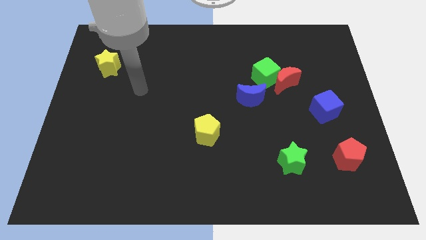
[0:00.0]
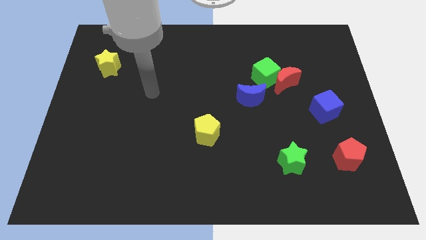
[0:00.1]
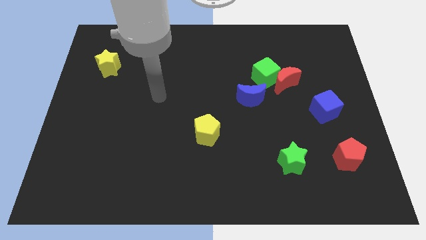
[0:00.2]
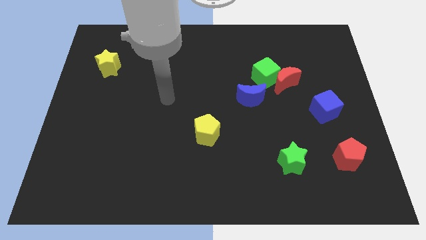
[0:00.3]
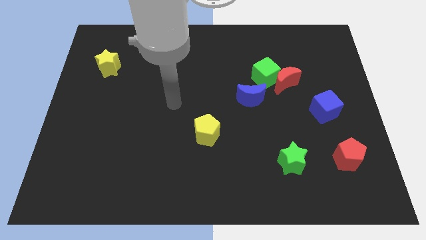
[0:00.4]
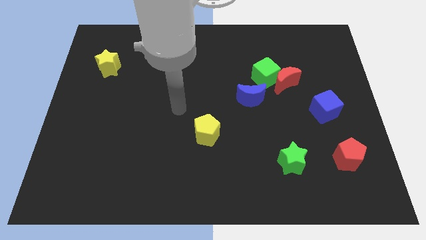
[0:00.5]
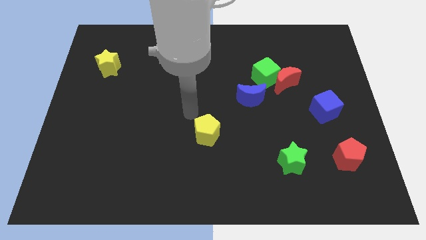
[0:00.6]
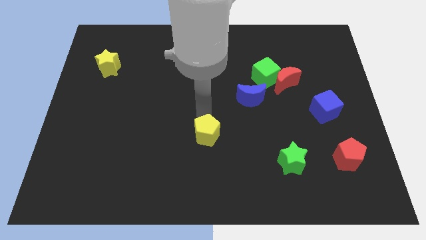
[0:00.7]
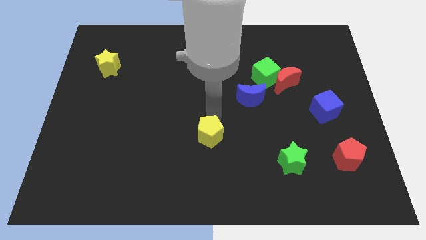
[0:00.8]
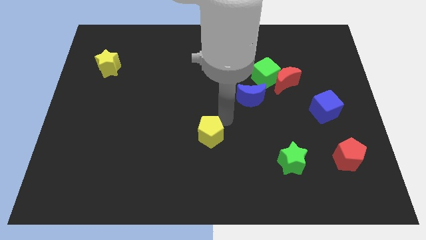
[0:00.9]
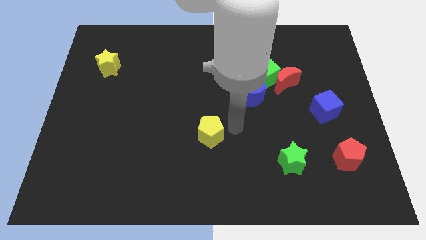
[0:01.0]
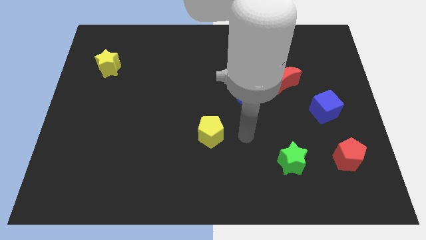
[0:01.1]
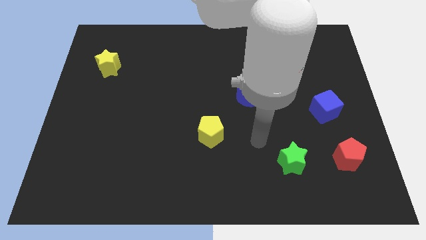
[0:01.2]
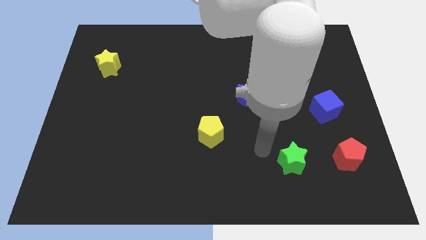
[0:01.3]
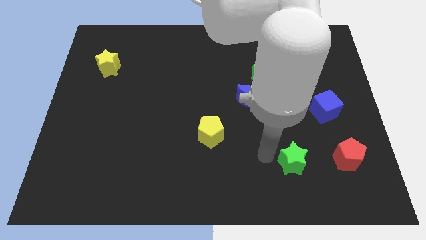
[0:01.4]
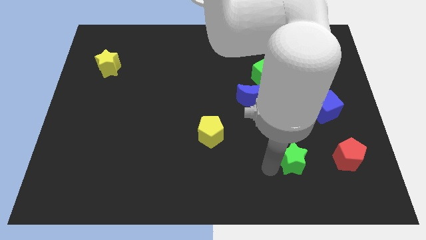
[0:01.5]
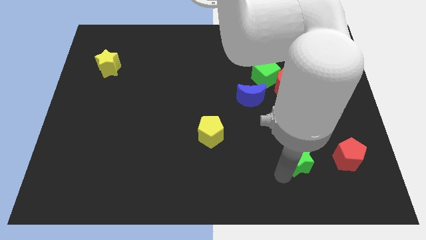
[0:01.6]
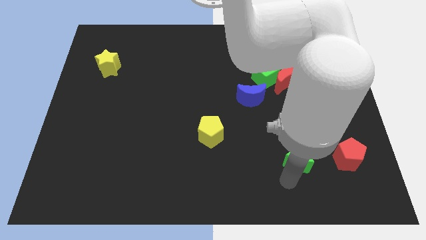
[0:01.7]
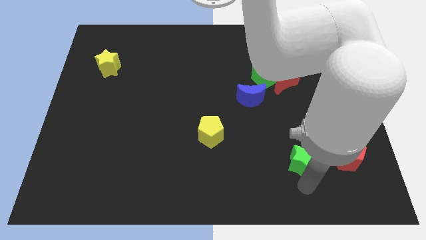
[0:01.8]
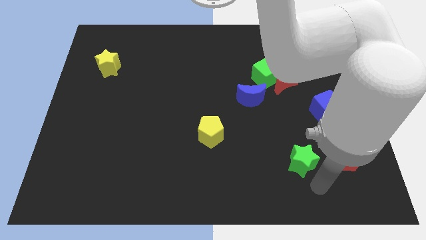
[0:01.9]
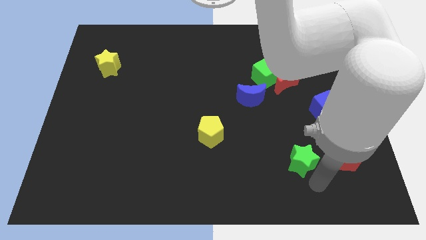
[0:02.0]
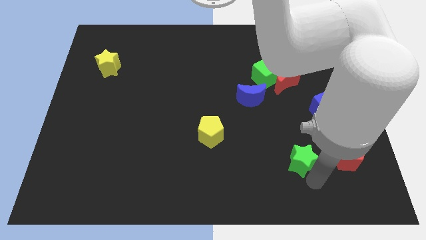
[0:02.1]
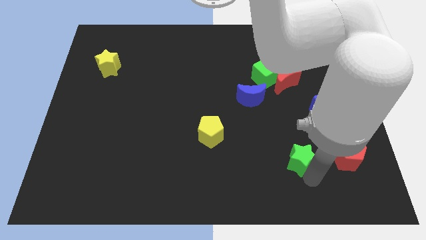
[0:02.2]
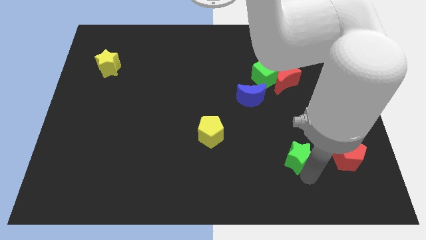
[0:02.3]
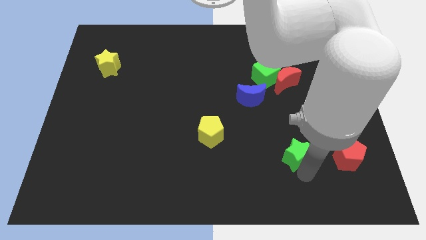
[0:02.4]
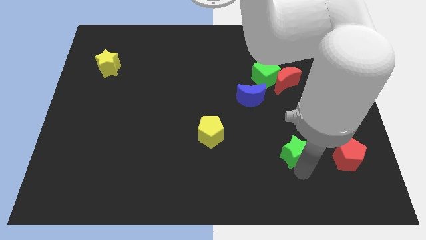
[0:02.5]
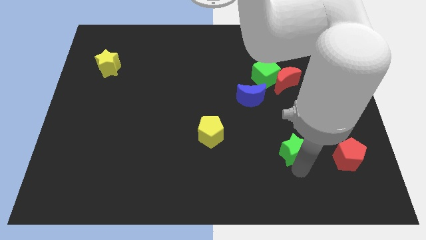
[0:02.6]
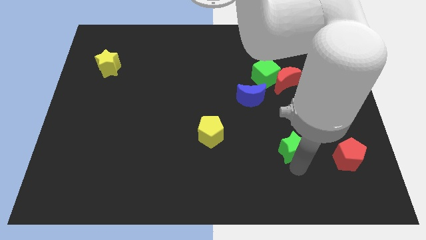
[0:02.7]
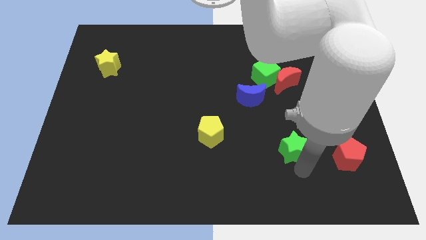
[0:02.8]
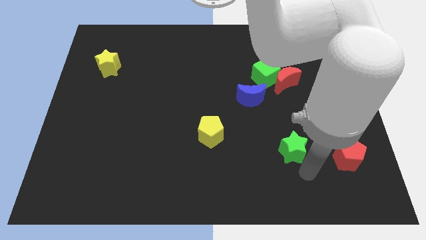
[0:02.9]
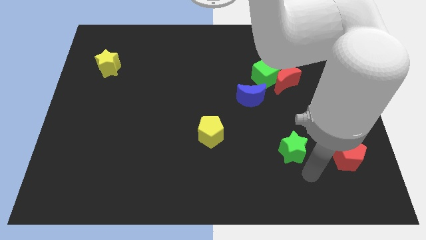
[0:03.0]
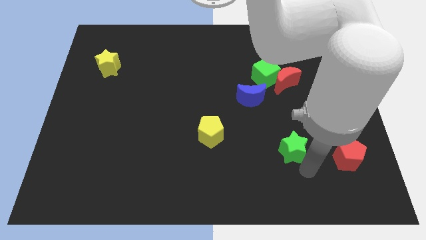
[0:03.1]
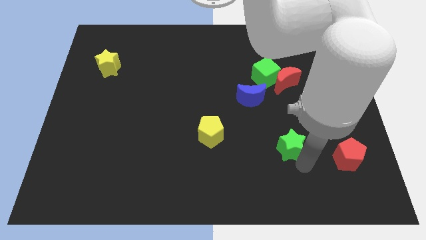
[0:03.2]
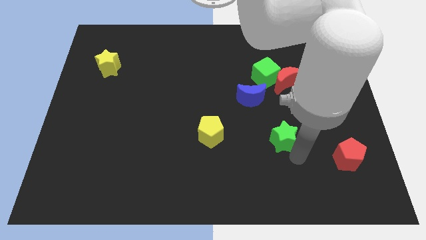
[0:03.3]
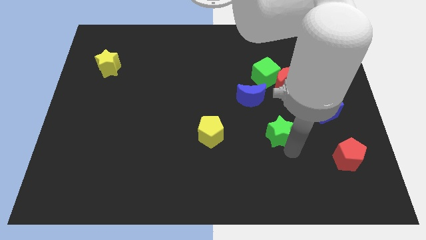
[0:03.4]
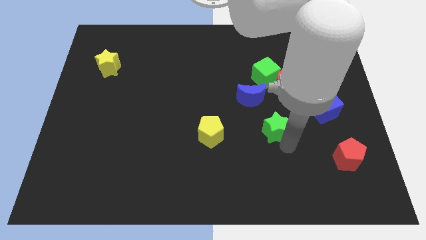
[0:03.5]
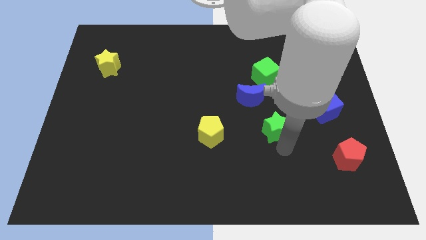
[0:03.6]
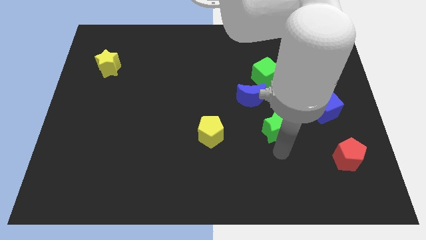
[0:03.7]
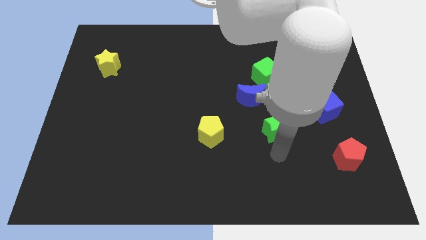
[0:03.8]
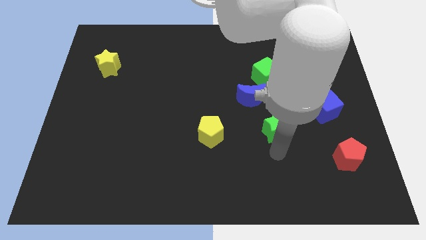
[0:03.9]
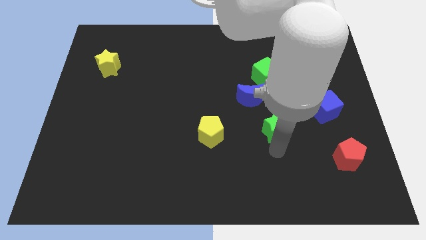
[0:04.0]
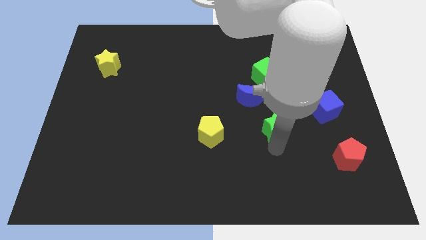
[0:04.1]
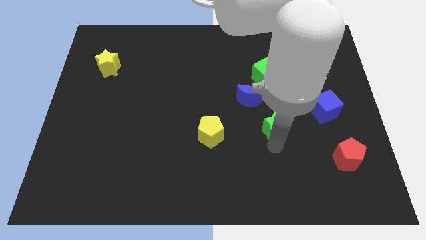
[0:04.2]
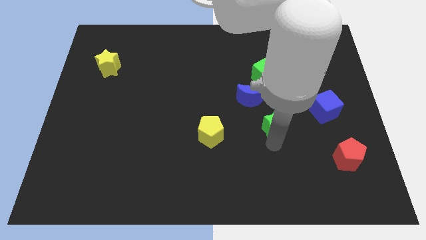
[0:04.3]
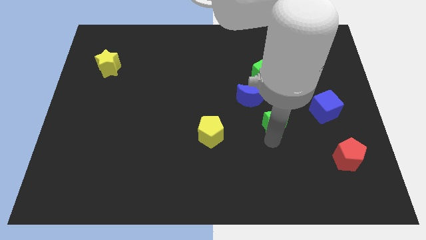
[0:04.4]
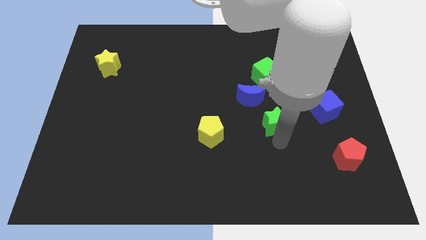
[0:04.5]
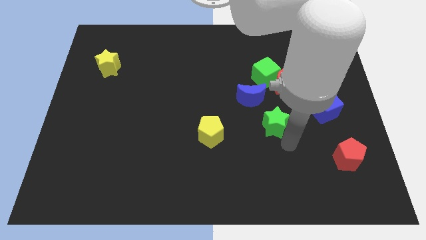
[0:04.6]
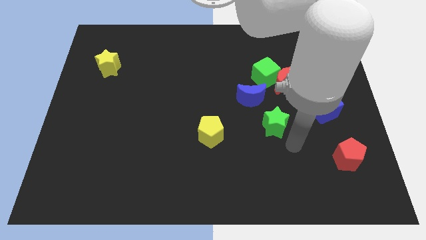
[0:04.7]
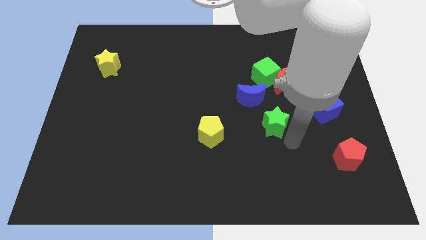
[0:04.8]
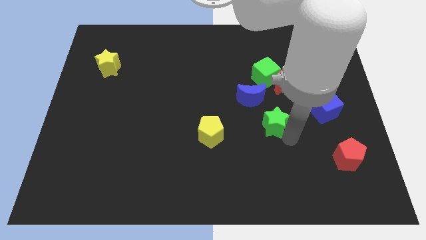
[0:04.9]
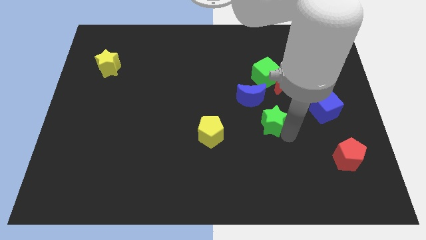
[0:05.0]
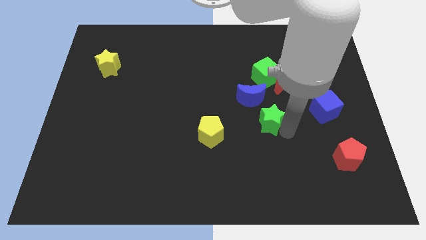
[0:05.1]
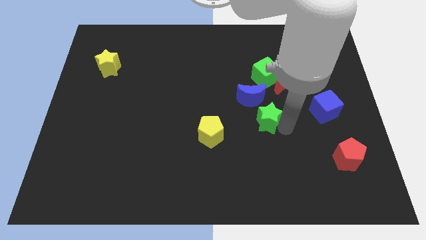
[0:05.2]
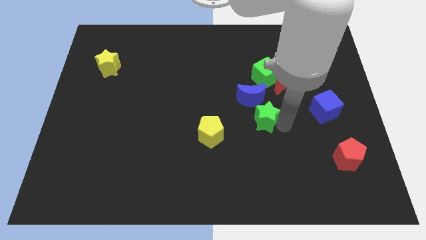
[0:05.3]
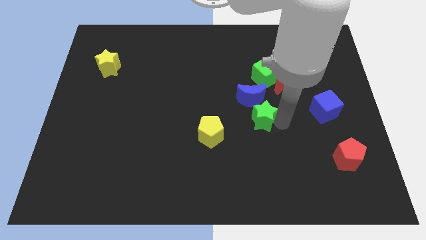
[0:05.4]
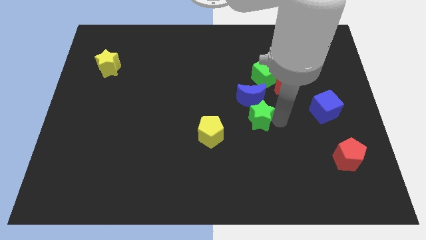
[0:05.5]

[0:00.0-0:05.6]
move the green star close to the blue moon

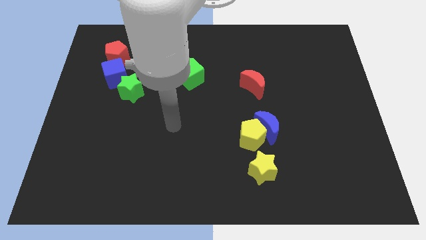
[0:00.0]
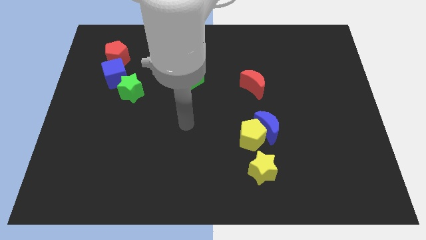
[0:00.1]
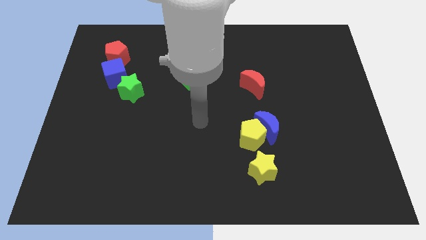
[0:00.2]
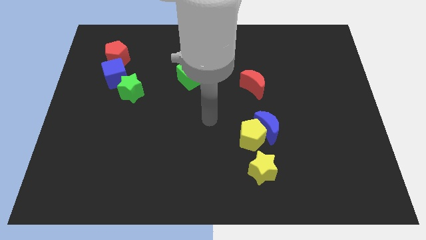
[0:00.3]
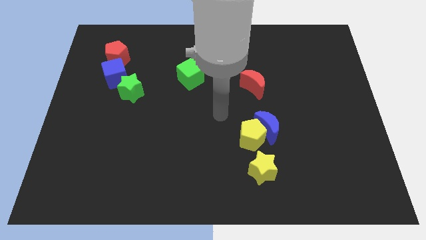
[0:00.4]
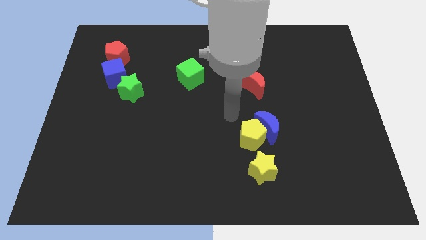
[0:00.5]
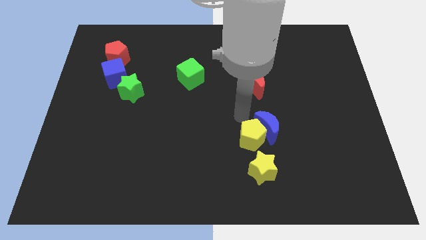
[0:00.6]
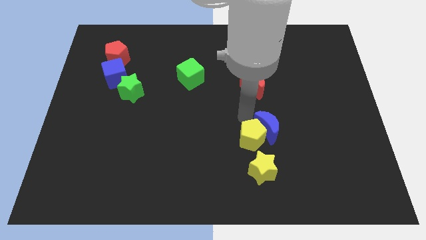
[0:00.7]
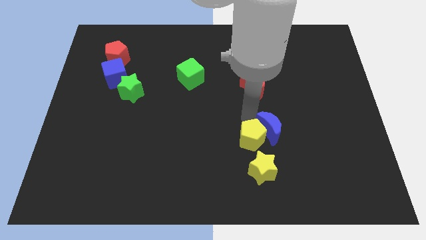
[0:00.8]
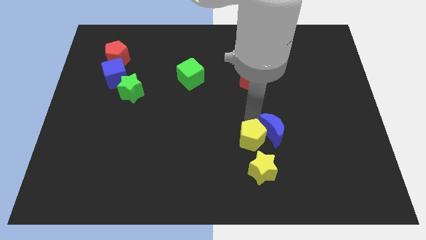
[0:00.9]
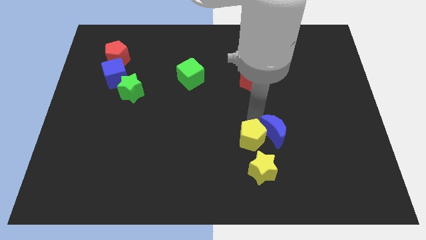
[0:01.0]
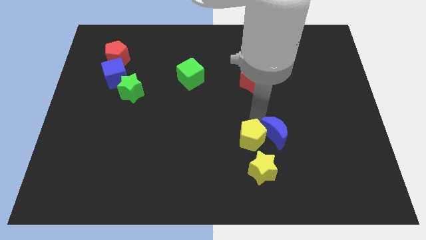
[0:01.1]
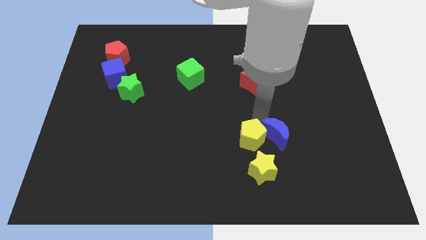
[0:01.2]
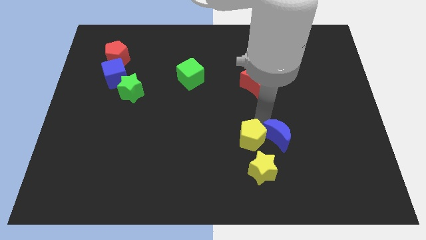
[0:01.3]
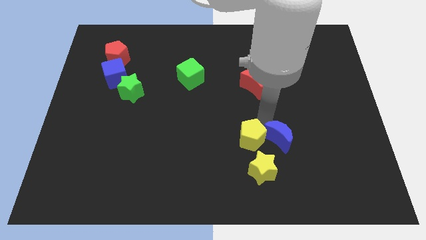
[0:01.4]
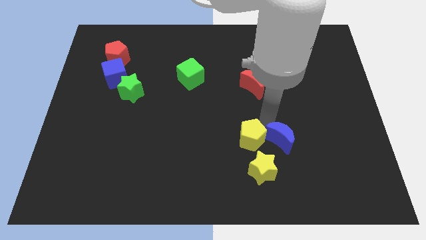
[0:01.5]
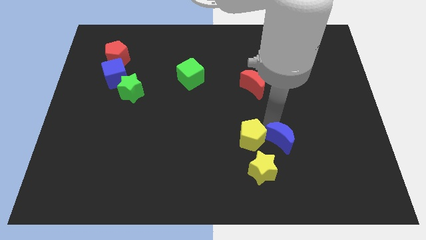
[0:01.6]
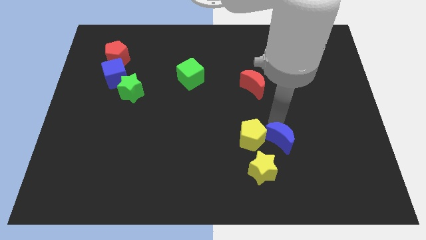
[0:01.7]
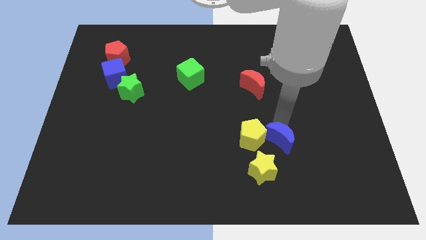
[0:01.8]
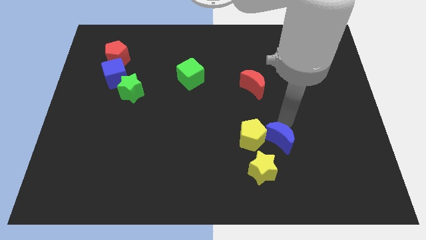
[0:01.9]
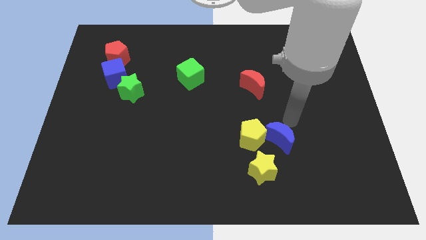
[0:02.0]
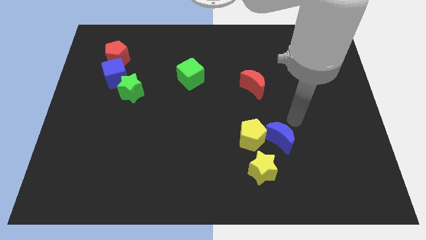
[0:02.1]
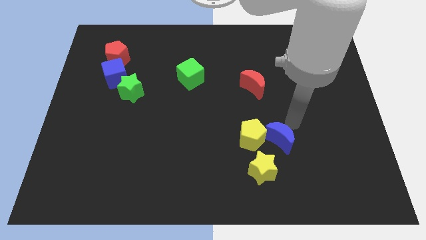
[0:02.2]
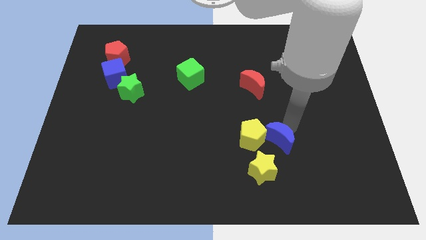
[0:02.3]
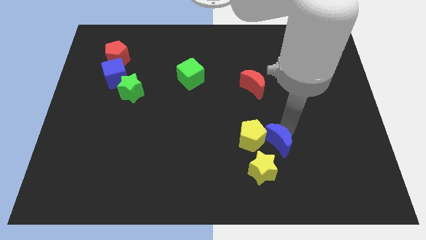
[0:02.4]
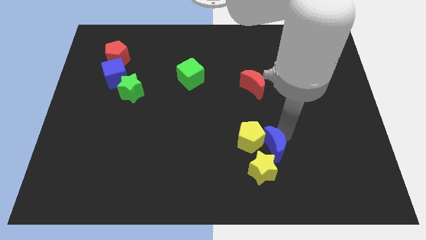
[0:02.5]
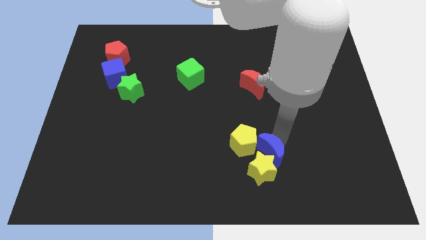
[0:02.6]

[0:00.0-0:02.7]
put the blue moon towards the yellow star
